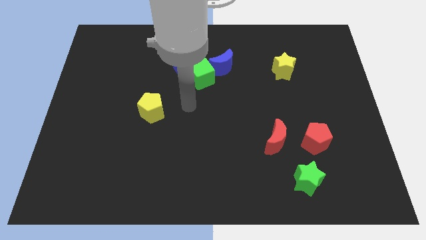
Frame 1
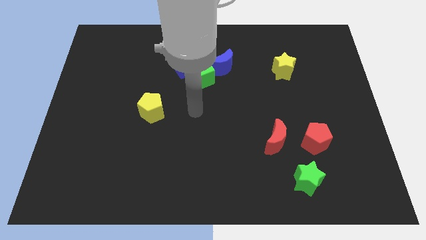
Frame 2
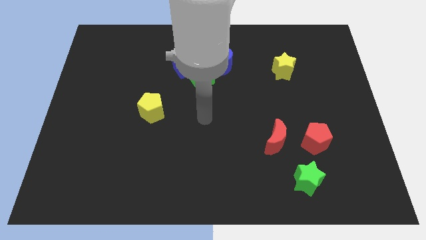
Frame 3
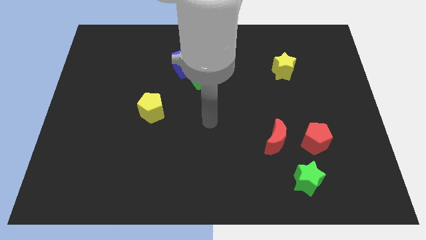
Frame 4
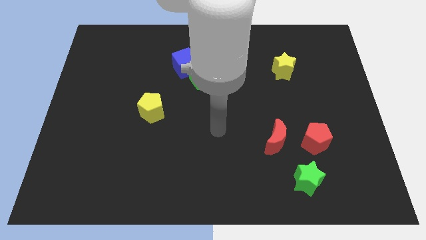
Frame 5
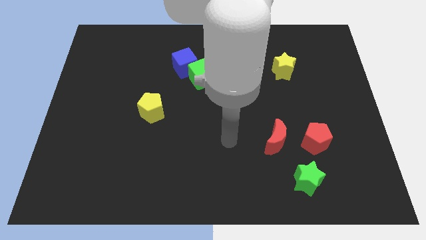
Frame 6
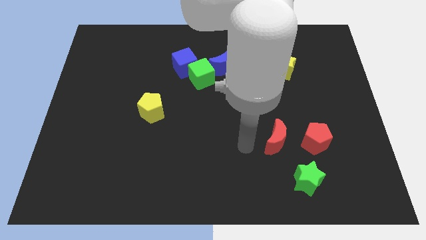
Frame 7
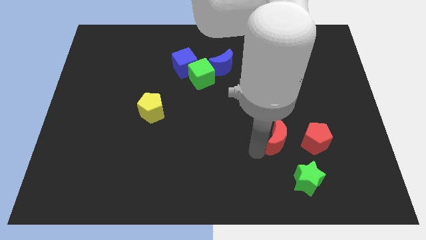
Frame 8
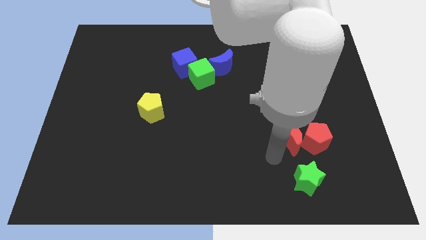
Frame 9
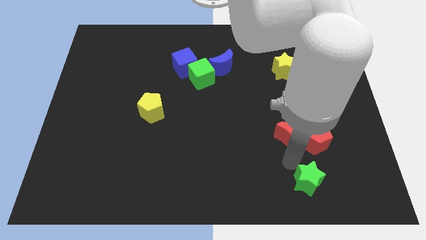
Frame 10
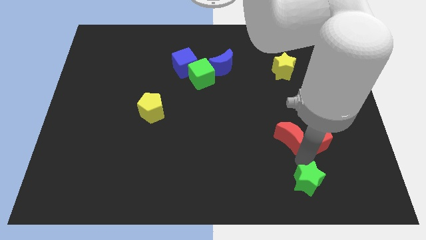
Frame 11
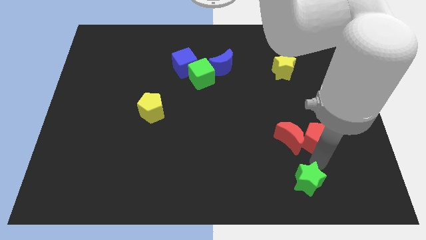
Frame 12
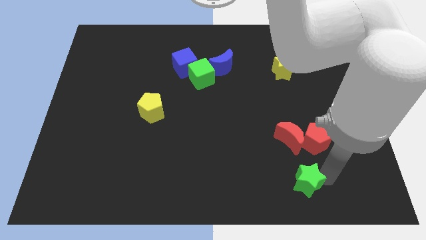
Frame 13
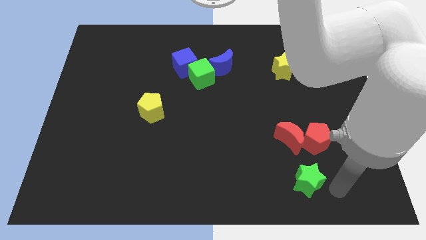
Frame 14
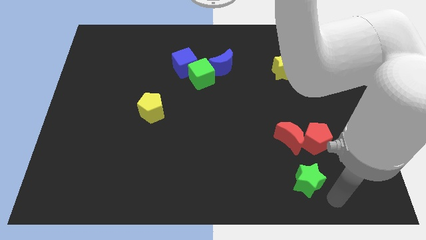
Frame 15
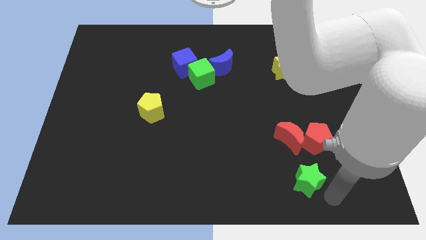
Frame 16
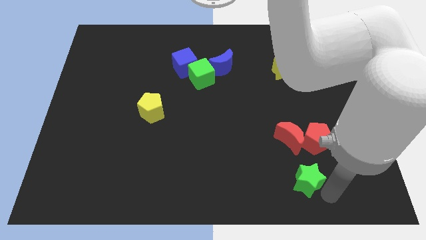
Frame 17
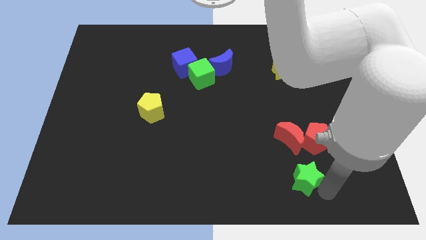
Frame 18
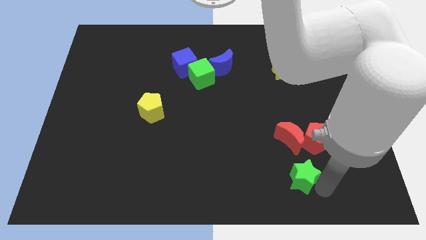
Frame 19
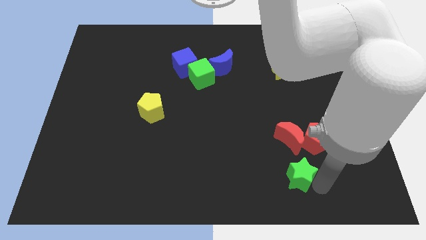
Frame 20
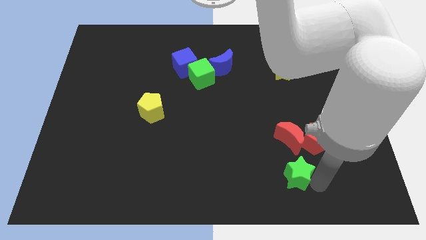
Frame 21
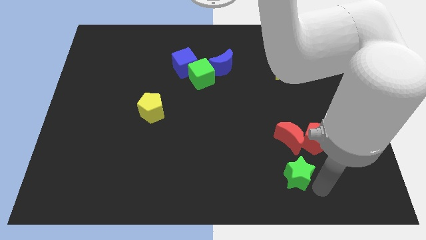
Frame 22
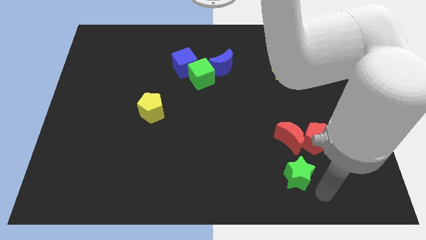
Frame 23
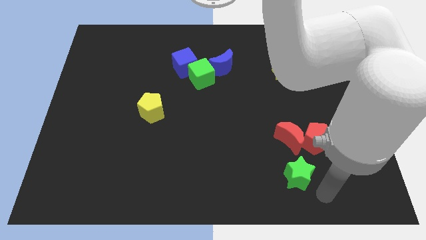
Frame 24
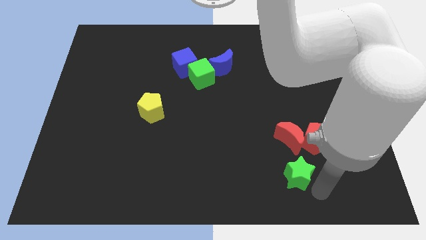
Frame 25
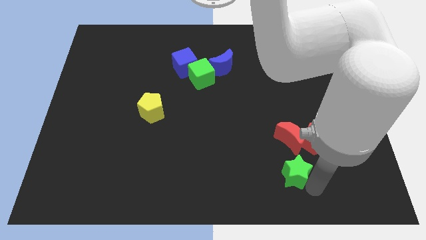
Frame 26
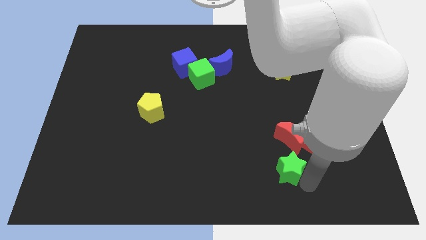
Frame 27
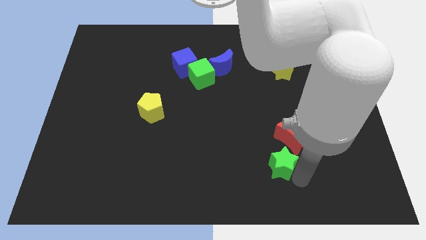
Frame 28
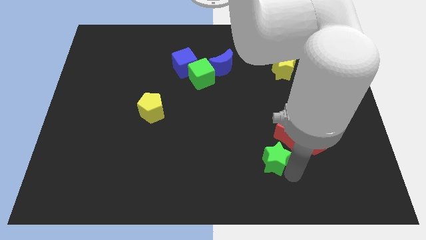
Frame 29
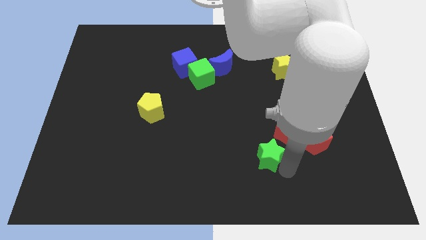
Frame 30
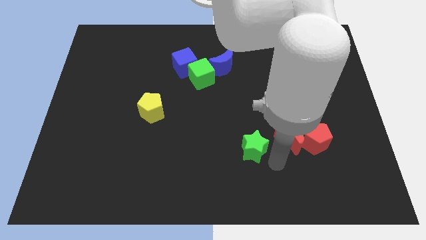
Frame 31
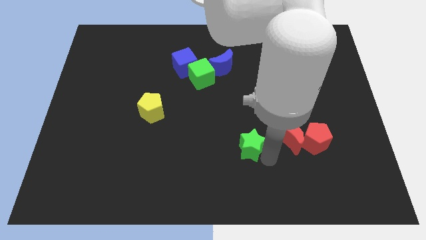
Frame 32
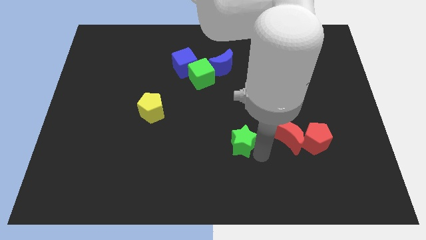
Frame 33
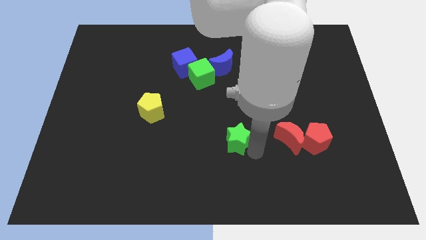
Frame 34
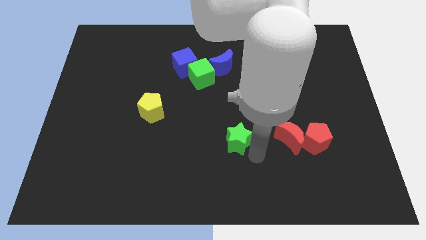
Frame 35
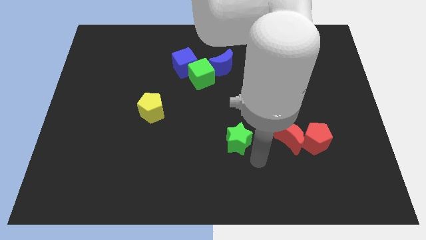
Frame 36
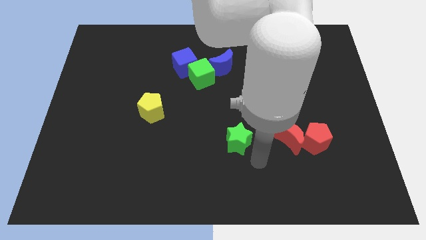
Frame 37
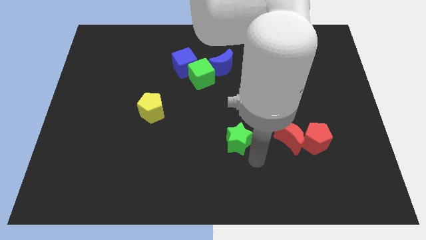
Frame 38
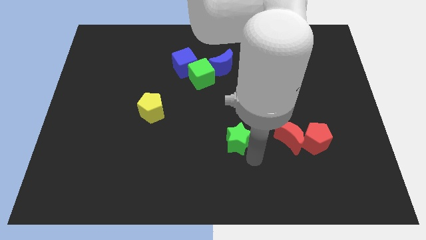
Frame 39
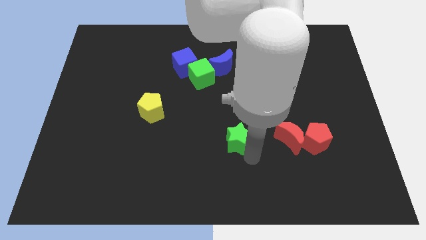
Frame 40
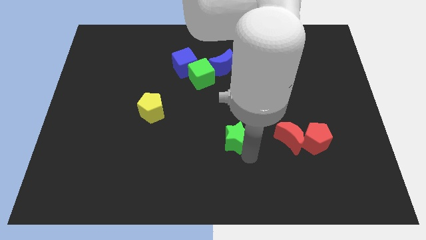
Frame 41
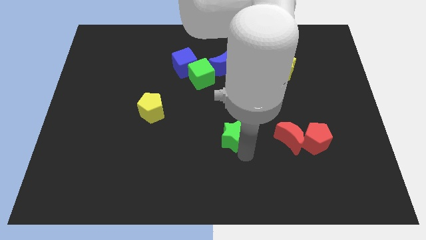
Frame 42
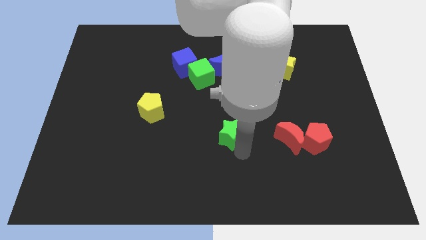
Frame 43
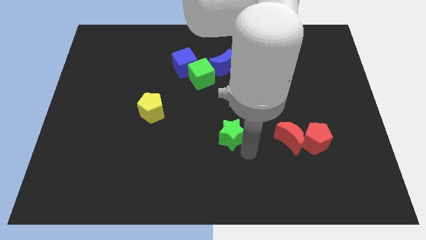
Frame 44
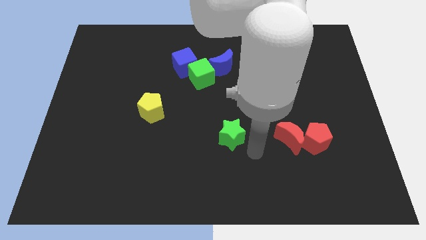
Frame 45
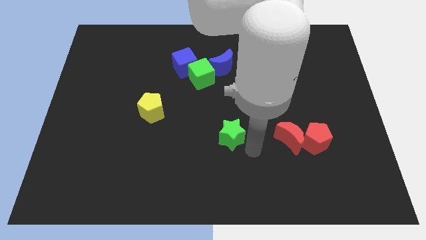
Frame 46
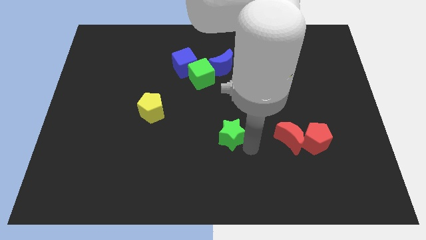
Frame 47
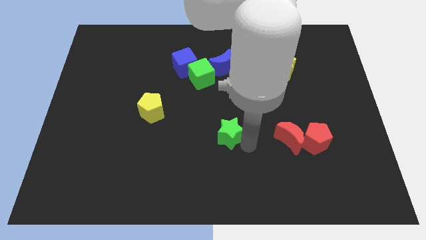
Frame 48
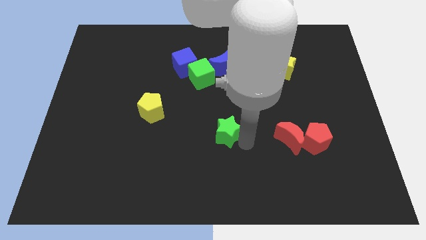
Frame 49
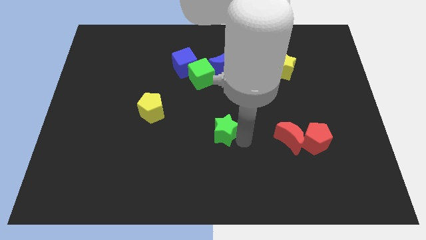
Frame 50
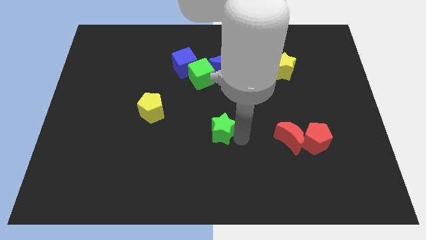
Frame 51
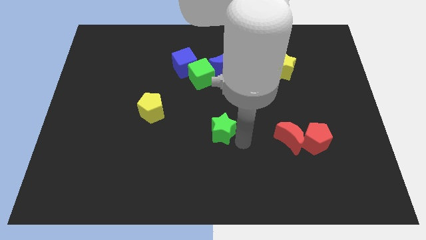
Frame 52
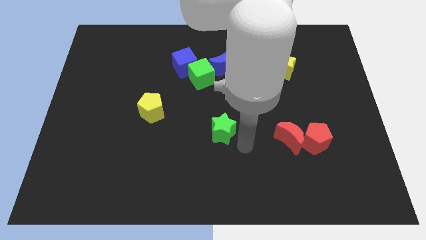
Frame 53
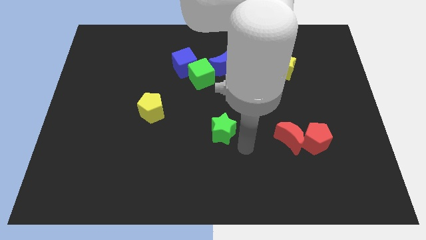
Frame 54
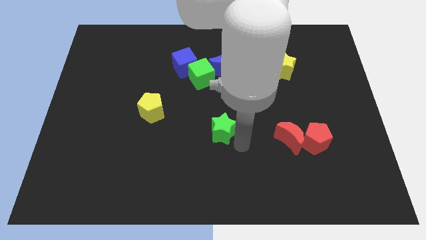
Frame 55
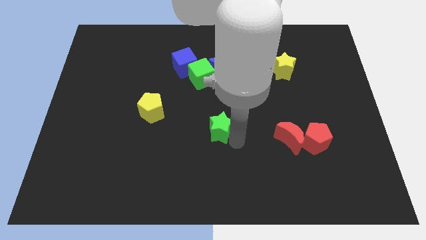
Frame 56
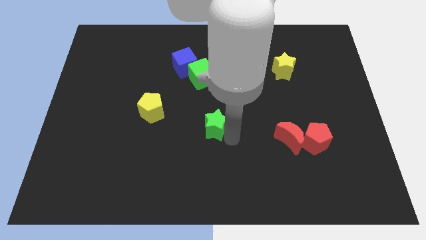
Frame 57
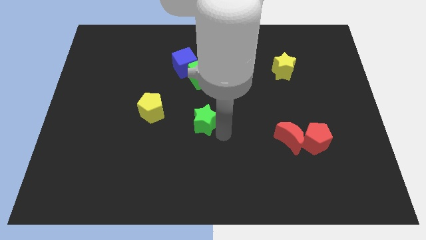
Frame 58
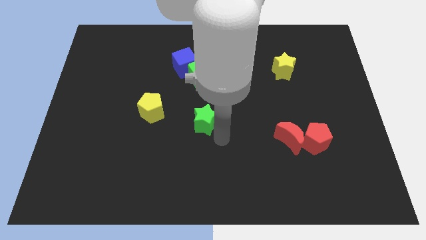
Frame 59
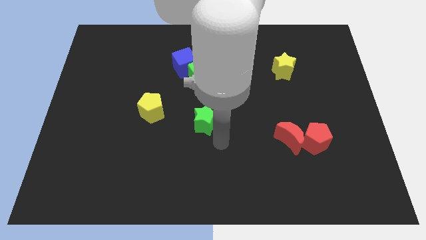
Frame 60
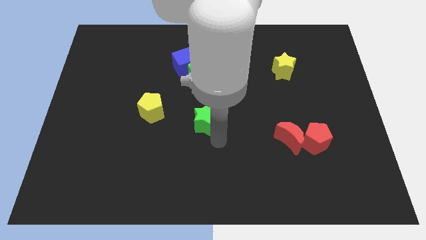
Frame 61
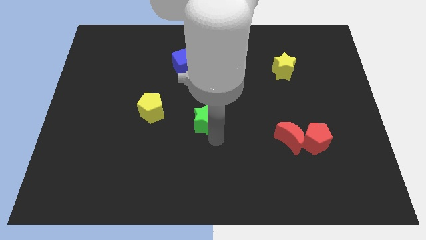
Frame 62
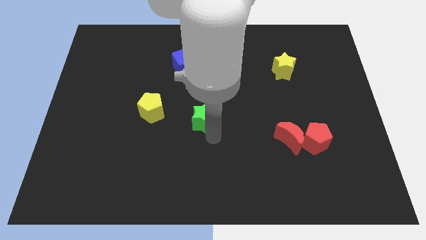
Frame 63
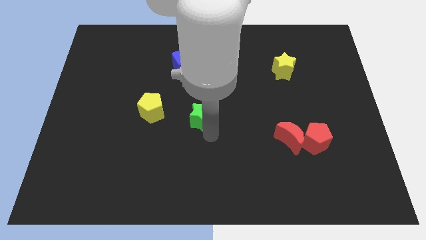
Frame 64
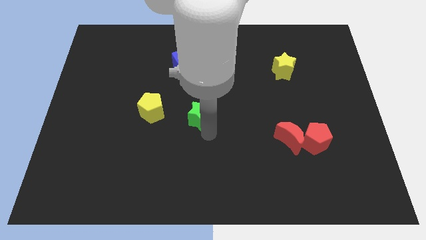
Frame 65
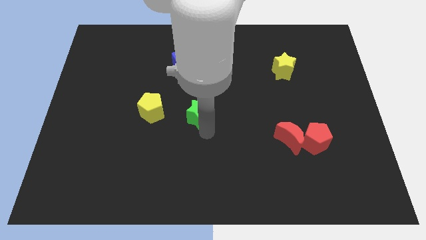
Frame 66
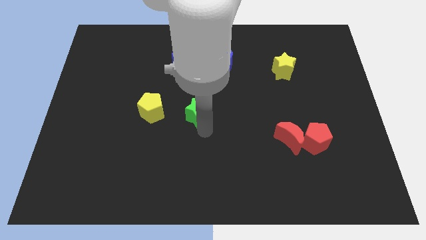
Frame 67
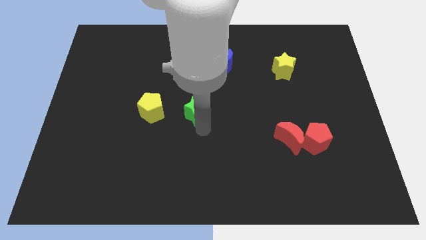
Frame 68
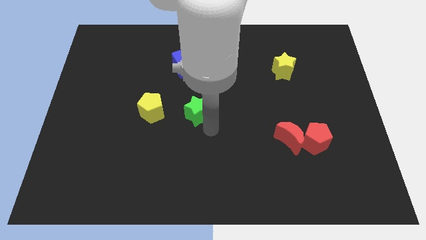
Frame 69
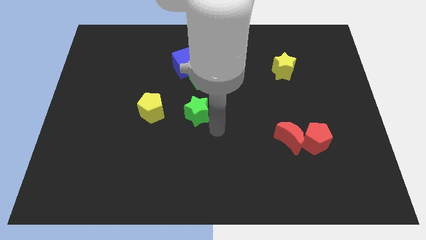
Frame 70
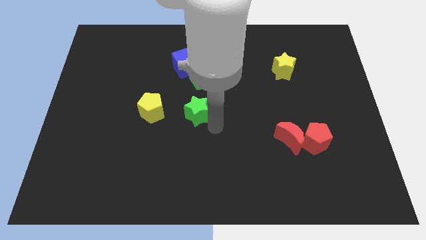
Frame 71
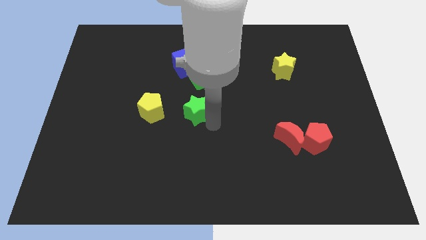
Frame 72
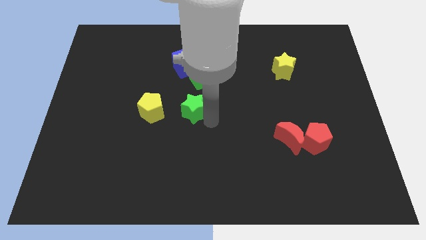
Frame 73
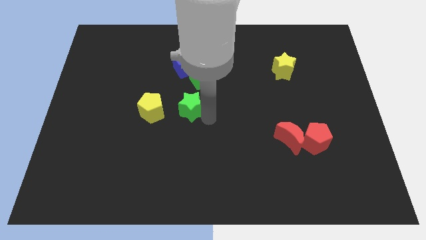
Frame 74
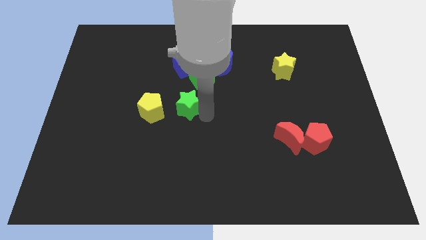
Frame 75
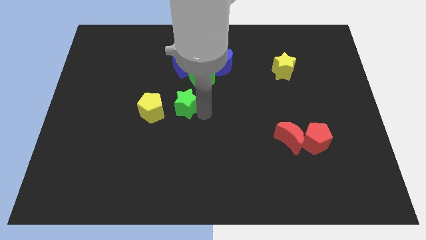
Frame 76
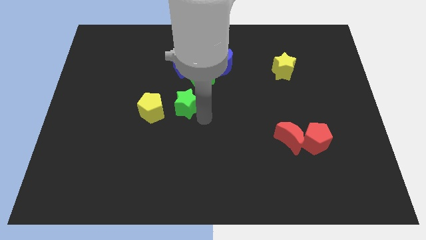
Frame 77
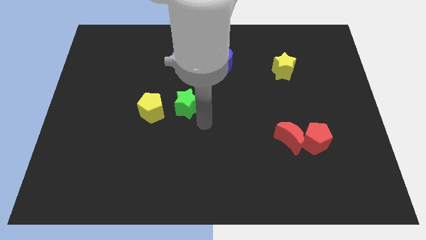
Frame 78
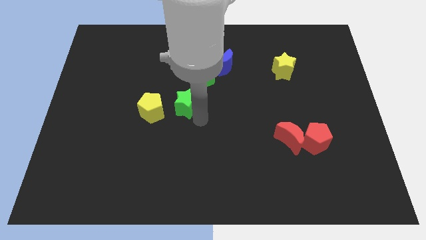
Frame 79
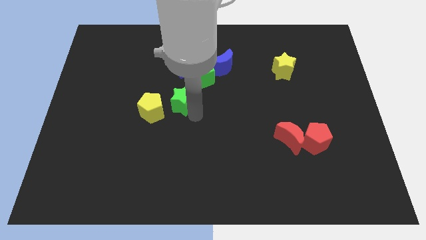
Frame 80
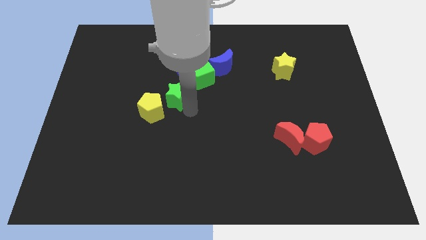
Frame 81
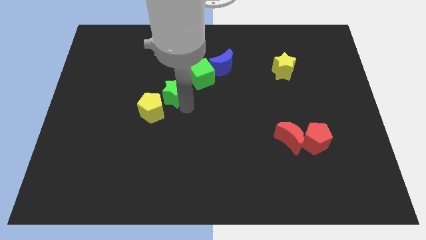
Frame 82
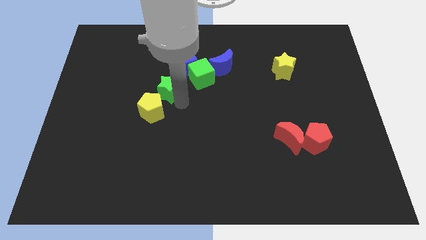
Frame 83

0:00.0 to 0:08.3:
slide the green star to the bottom left side of the blue cube

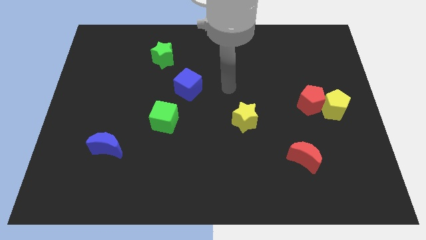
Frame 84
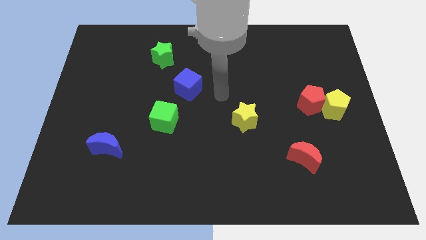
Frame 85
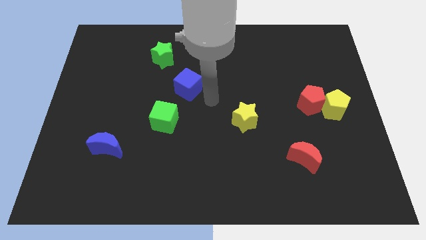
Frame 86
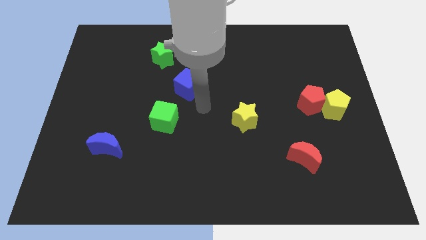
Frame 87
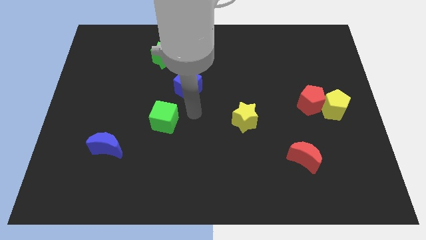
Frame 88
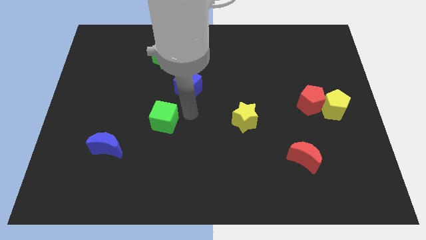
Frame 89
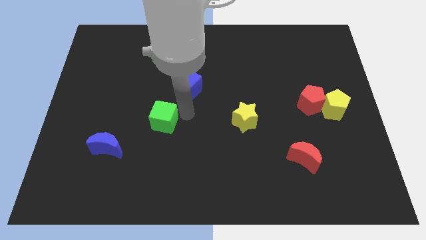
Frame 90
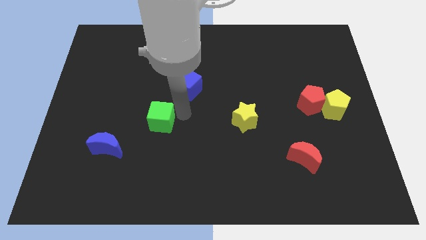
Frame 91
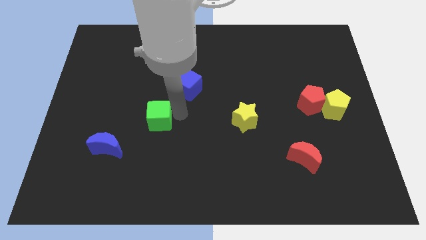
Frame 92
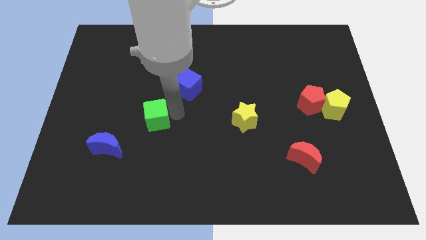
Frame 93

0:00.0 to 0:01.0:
slide the green cube diagonally up and to the right of the blue moon
